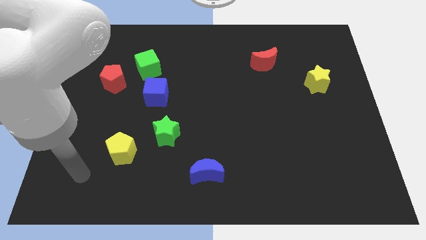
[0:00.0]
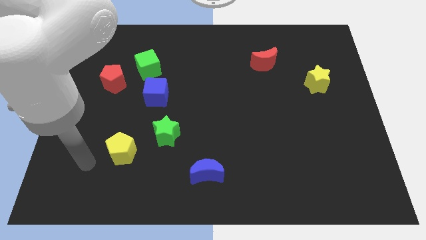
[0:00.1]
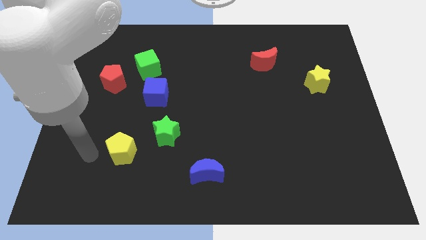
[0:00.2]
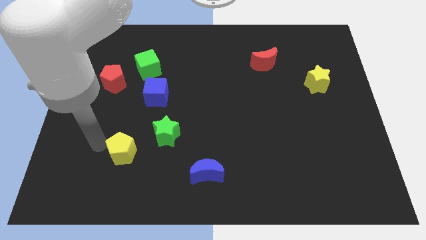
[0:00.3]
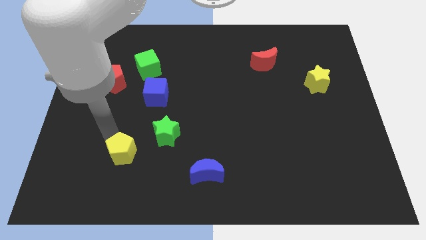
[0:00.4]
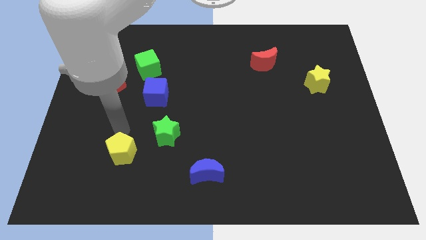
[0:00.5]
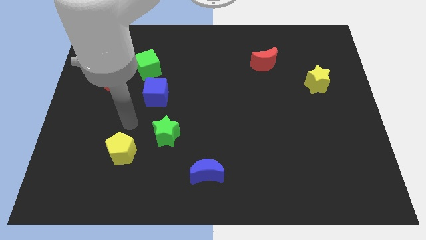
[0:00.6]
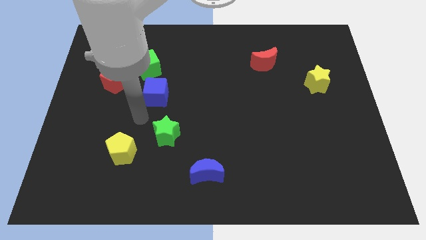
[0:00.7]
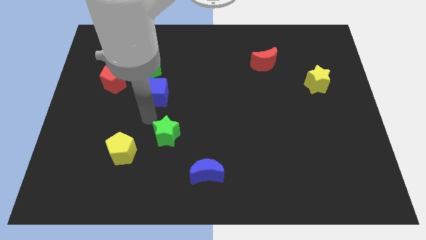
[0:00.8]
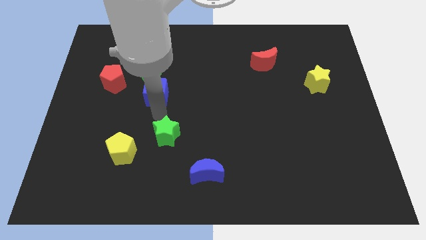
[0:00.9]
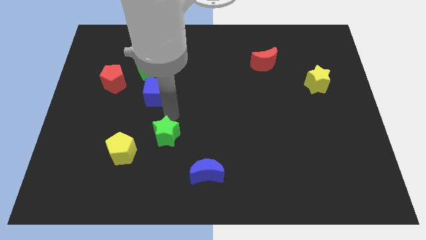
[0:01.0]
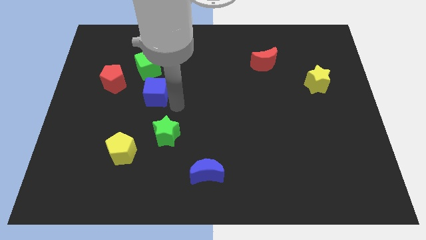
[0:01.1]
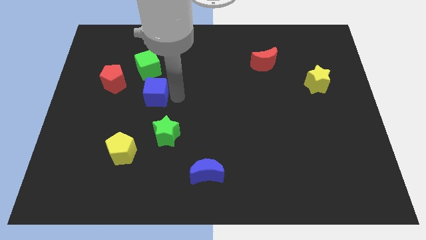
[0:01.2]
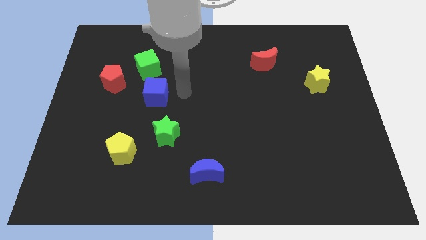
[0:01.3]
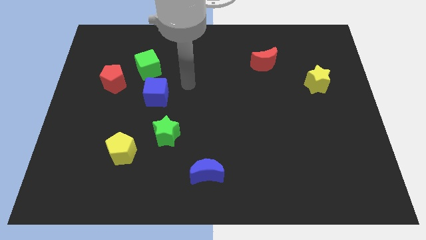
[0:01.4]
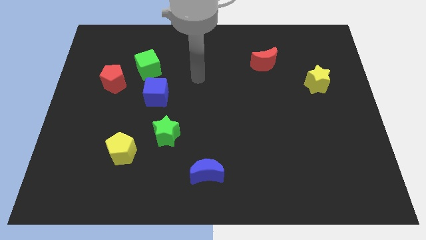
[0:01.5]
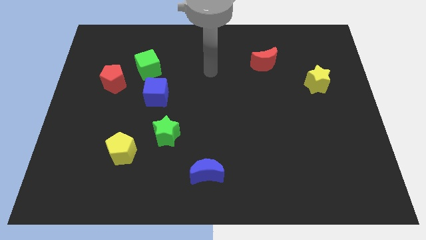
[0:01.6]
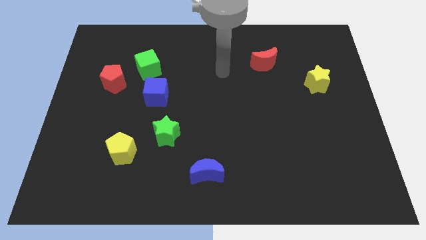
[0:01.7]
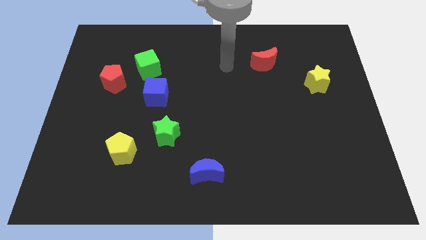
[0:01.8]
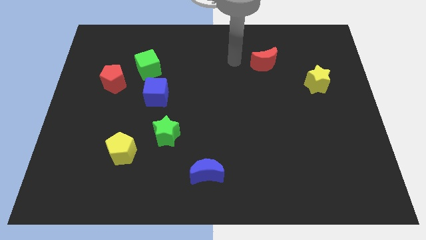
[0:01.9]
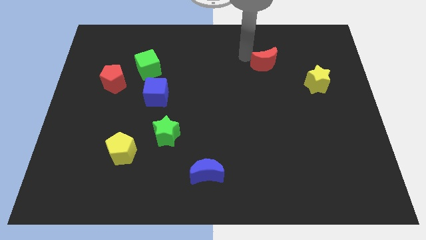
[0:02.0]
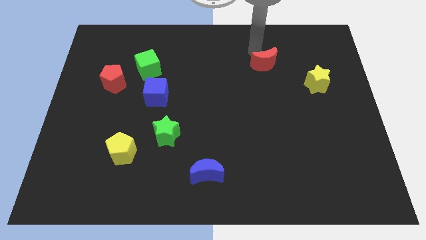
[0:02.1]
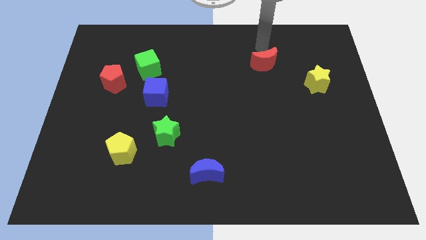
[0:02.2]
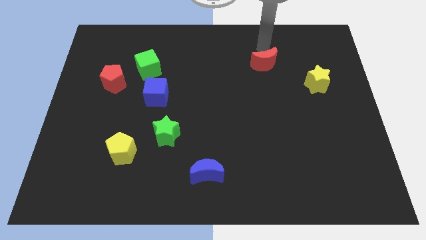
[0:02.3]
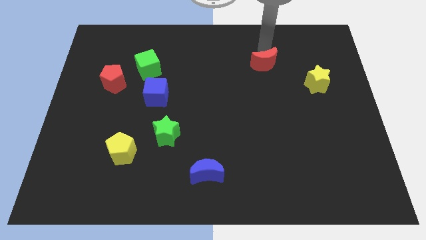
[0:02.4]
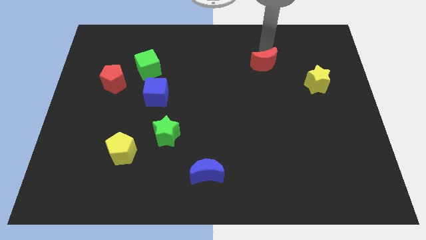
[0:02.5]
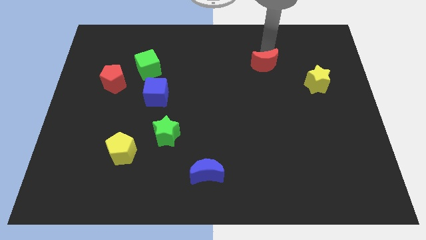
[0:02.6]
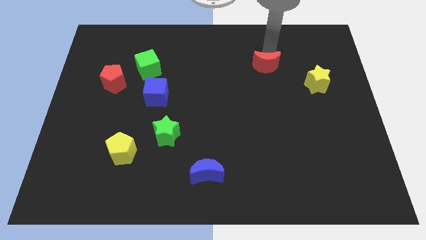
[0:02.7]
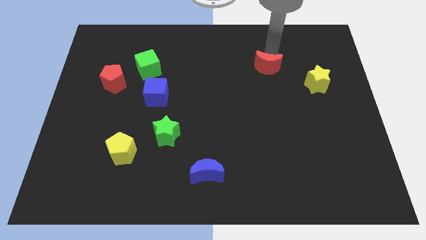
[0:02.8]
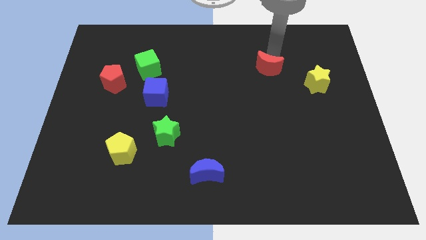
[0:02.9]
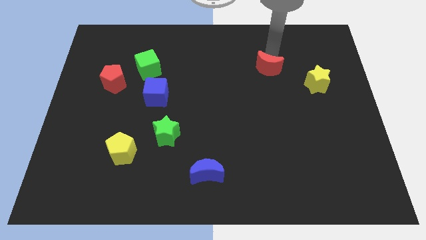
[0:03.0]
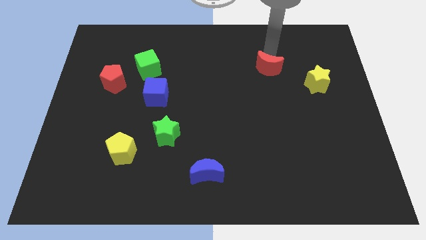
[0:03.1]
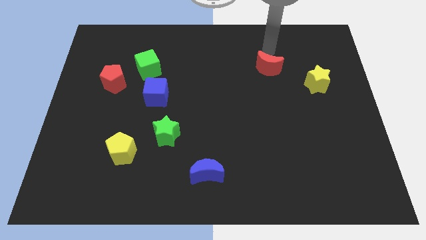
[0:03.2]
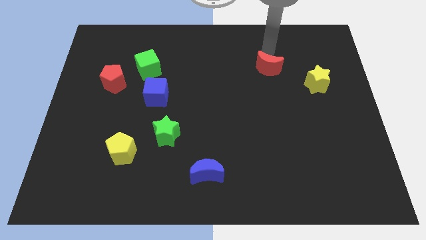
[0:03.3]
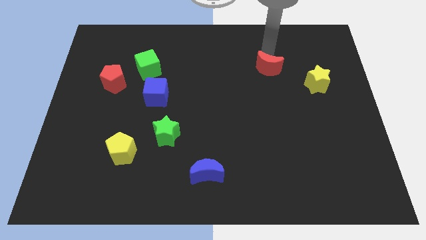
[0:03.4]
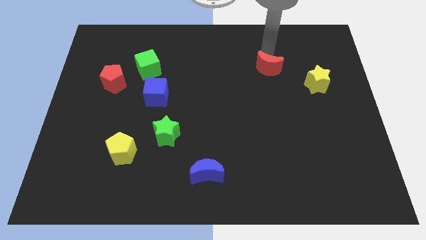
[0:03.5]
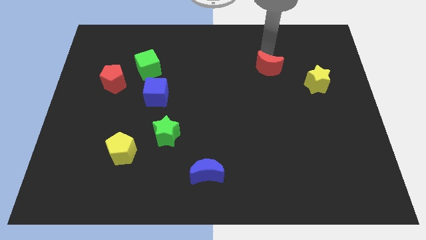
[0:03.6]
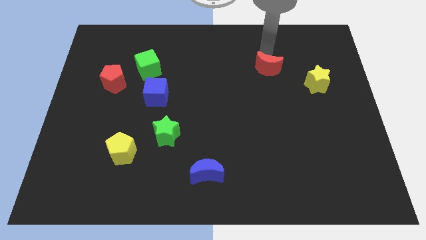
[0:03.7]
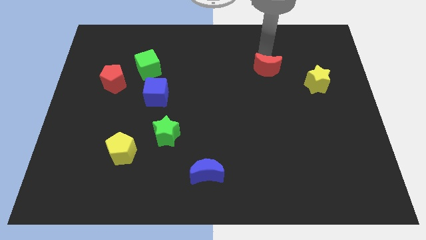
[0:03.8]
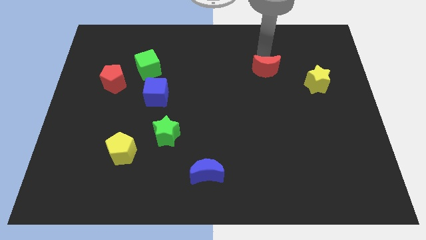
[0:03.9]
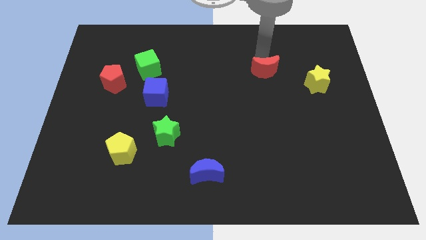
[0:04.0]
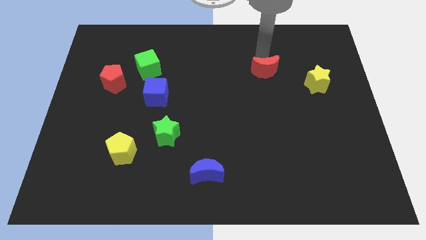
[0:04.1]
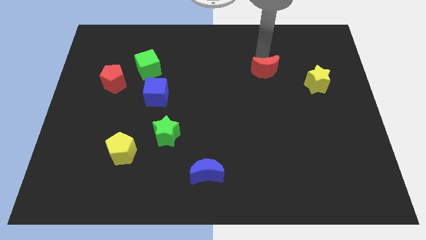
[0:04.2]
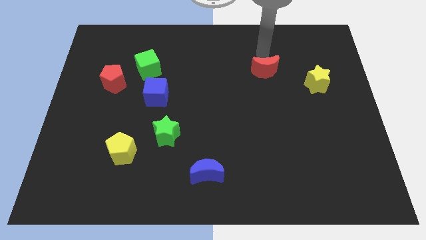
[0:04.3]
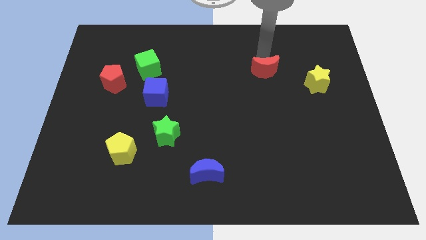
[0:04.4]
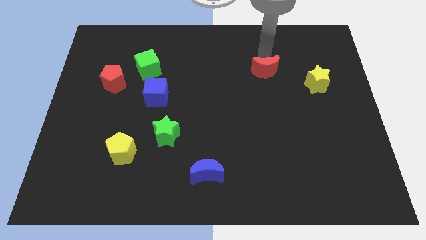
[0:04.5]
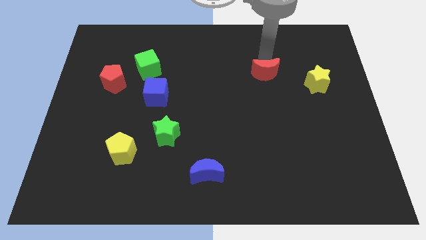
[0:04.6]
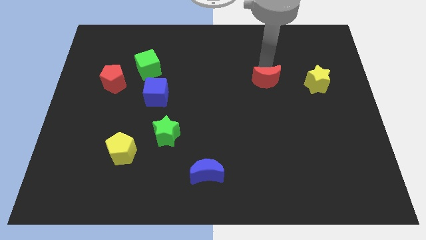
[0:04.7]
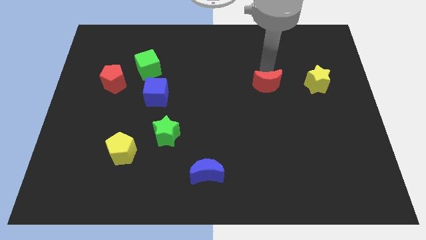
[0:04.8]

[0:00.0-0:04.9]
push the red moon downwards a little

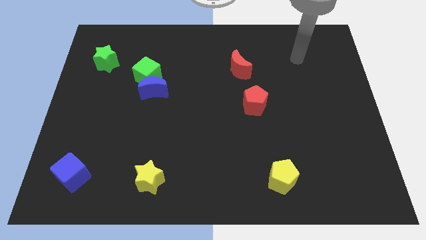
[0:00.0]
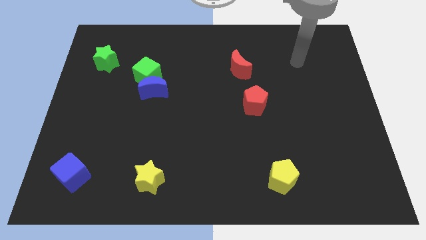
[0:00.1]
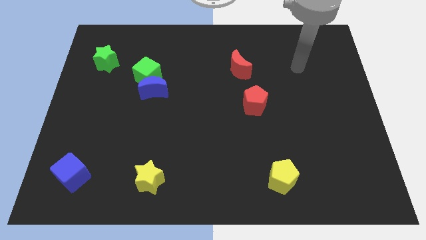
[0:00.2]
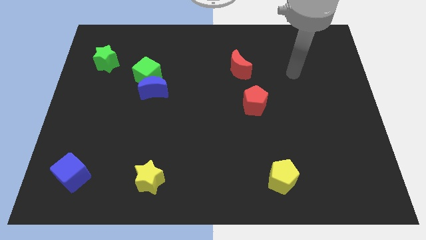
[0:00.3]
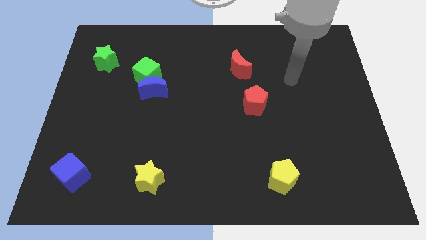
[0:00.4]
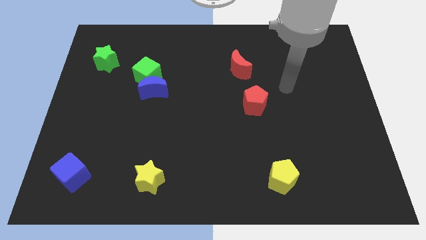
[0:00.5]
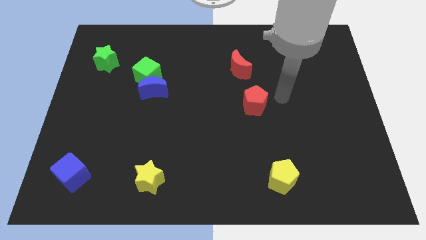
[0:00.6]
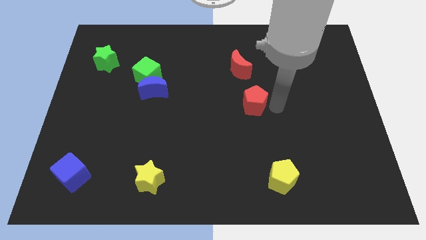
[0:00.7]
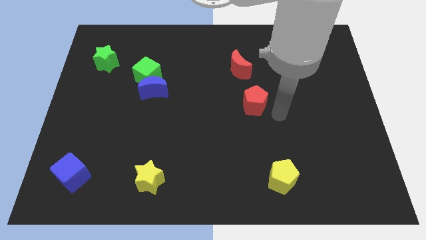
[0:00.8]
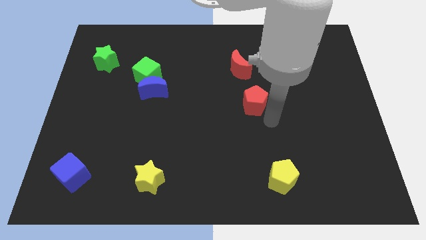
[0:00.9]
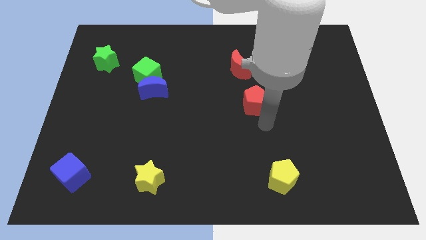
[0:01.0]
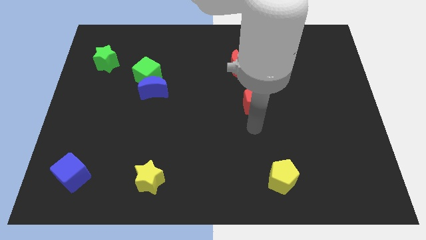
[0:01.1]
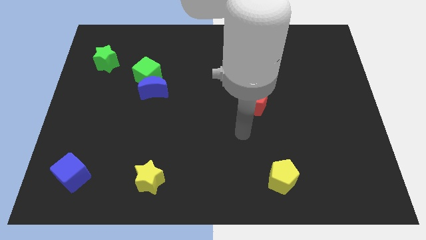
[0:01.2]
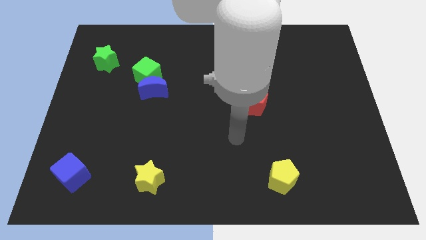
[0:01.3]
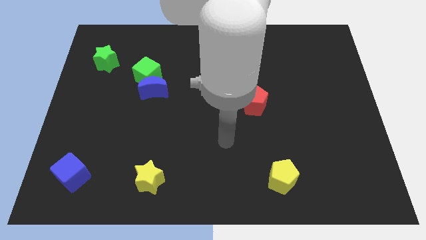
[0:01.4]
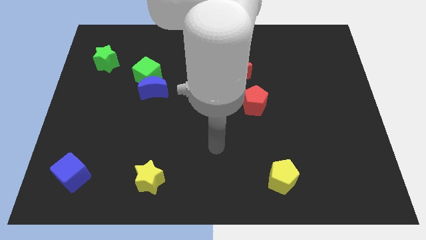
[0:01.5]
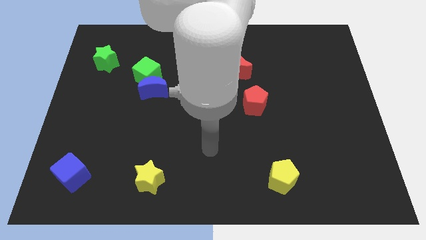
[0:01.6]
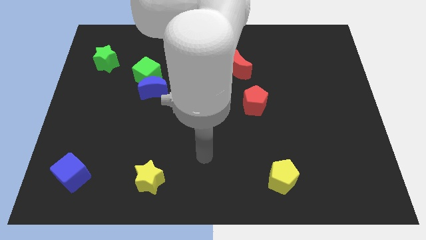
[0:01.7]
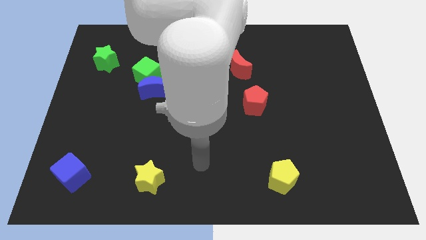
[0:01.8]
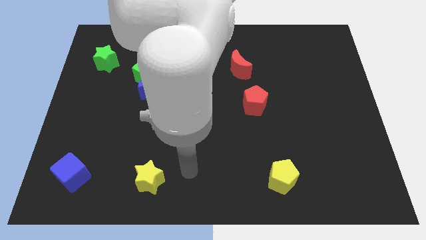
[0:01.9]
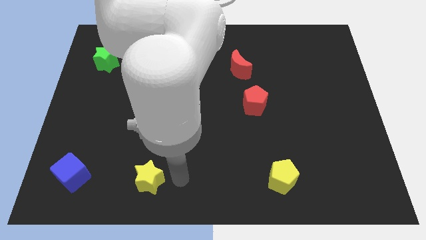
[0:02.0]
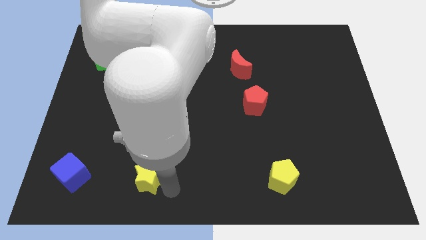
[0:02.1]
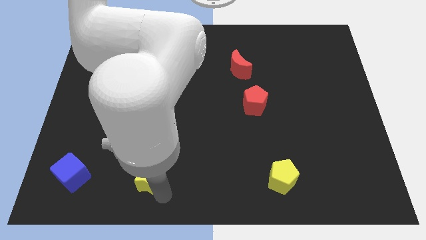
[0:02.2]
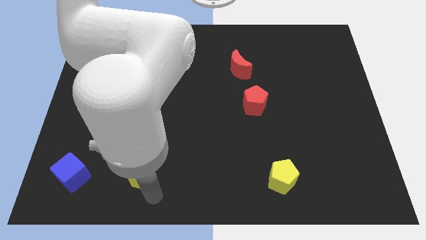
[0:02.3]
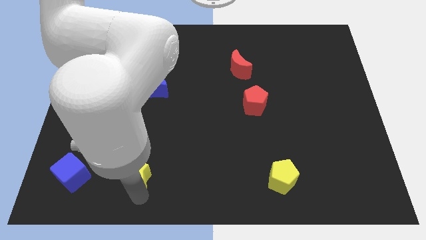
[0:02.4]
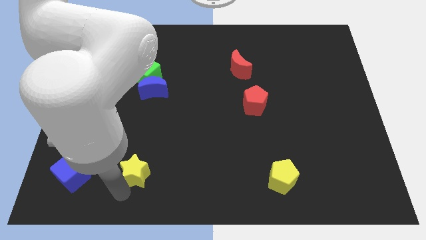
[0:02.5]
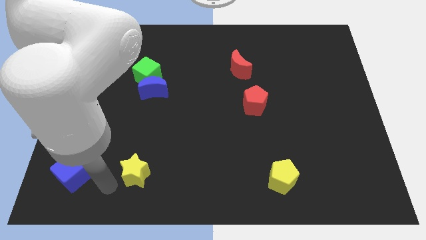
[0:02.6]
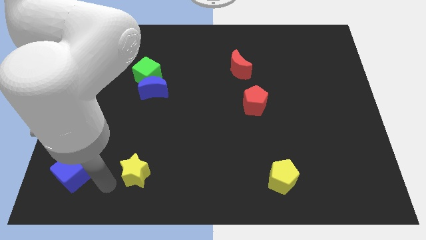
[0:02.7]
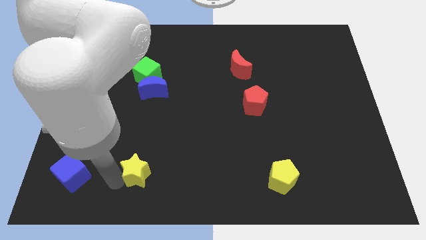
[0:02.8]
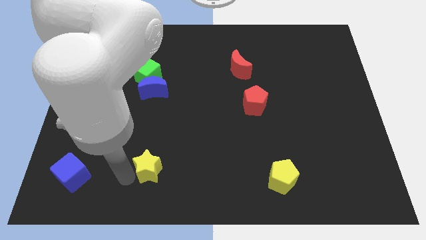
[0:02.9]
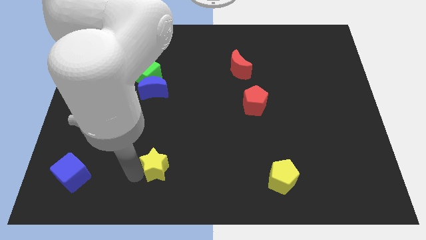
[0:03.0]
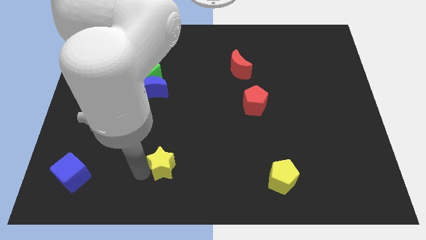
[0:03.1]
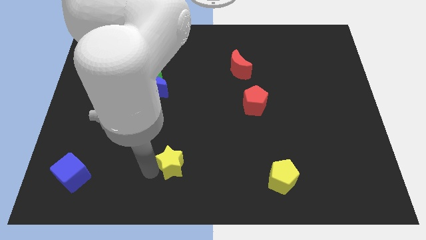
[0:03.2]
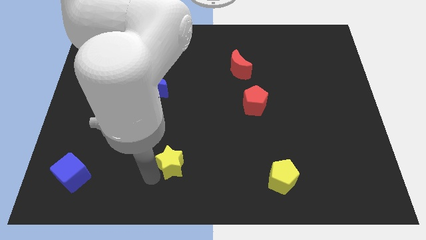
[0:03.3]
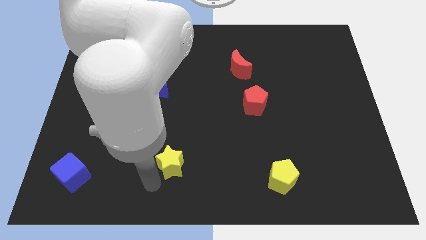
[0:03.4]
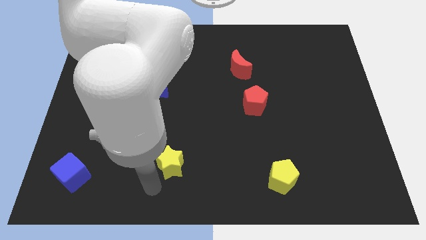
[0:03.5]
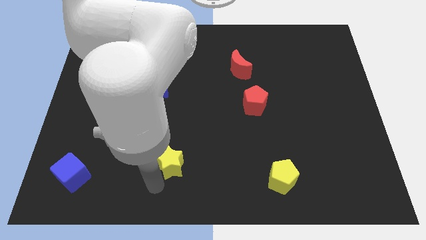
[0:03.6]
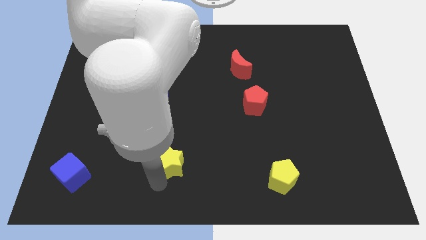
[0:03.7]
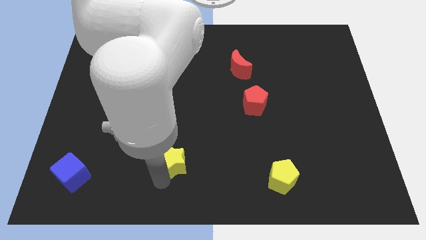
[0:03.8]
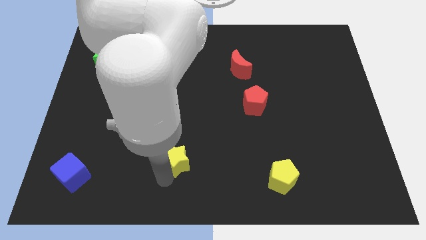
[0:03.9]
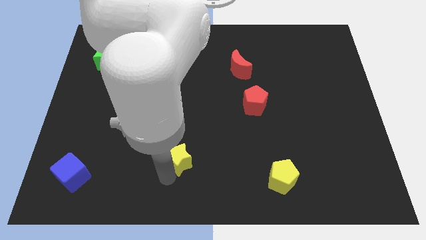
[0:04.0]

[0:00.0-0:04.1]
slightly slide the yellow star diagonally up and to the right
